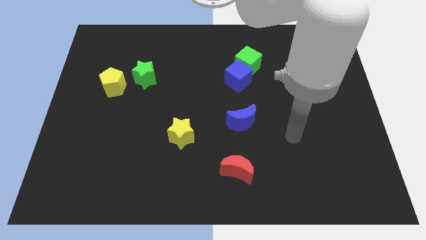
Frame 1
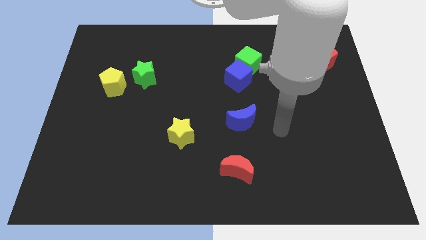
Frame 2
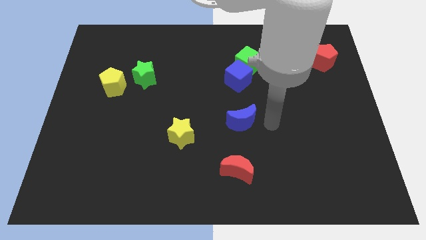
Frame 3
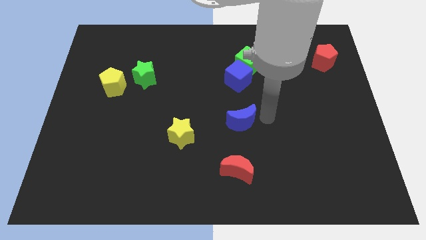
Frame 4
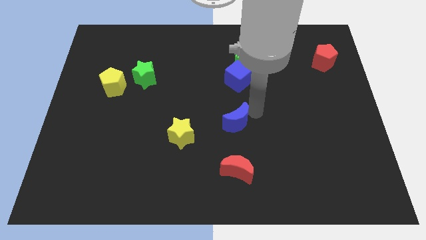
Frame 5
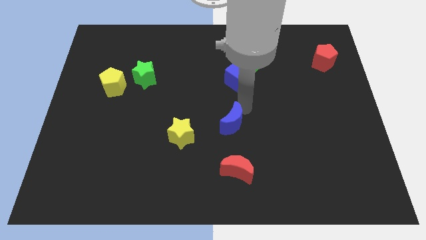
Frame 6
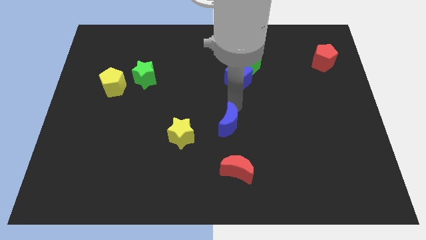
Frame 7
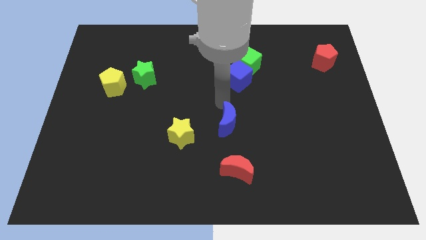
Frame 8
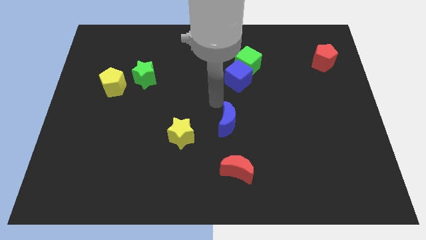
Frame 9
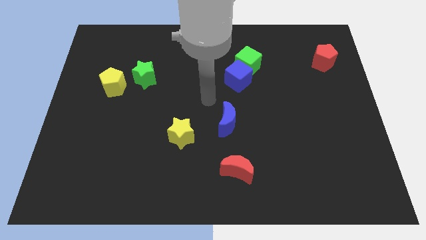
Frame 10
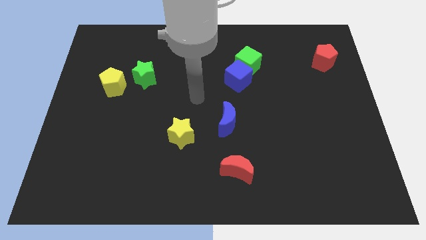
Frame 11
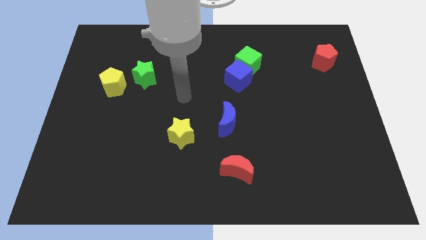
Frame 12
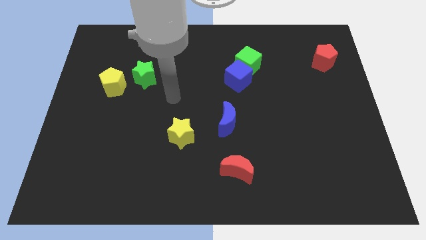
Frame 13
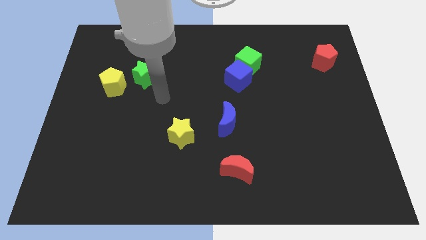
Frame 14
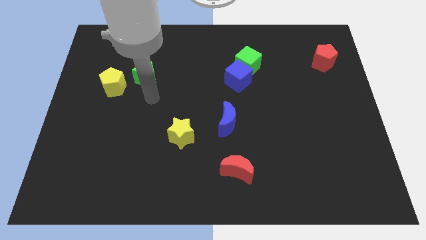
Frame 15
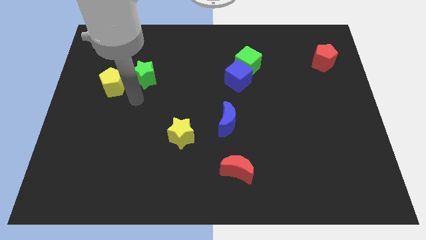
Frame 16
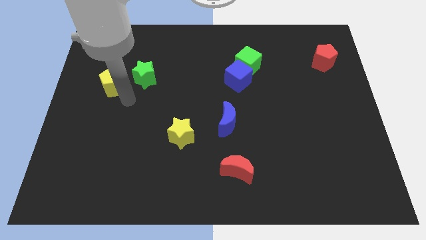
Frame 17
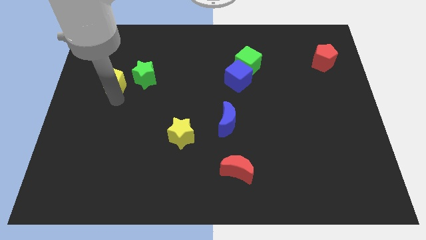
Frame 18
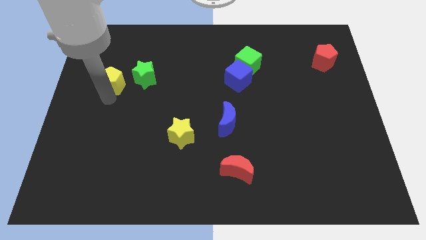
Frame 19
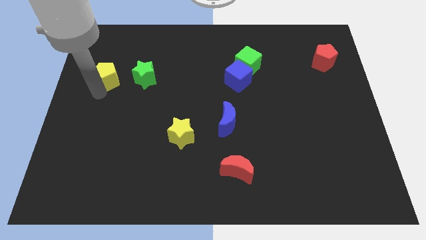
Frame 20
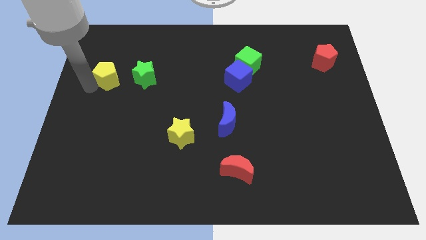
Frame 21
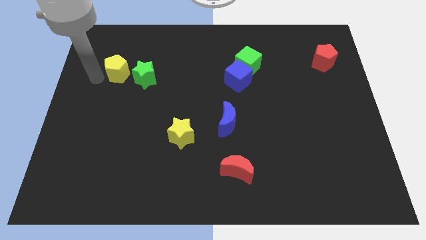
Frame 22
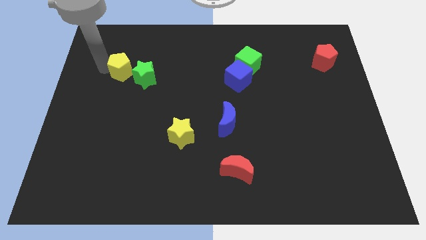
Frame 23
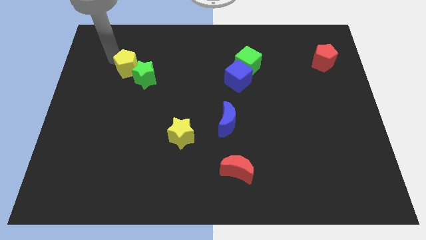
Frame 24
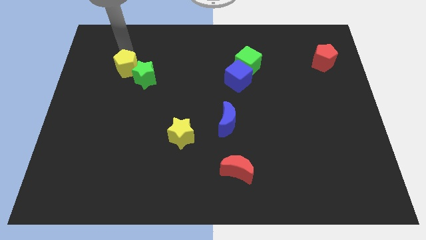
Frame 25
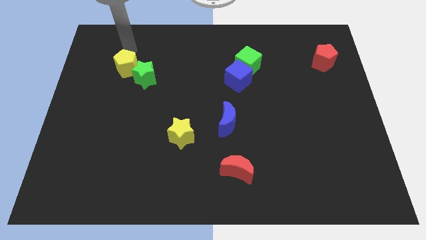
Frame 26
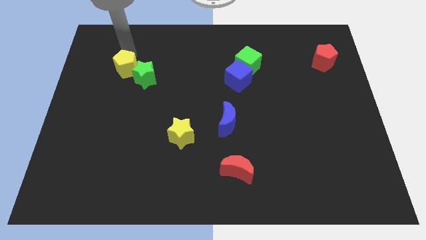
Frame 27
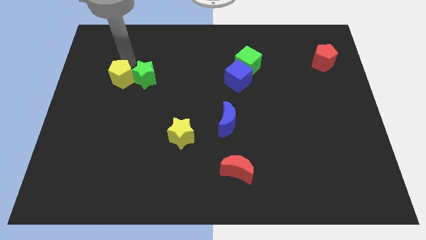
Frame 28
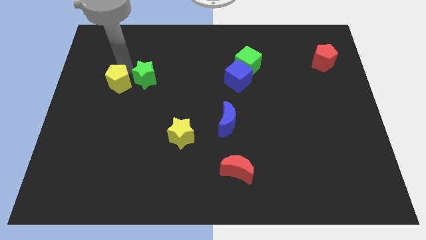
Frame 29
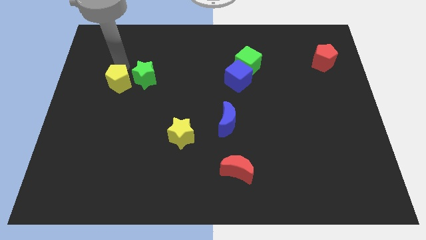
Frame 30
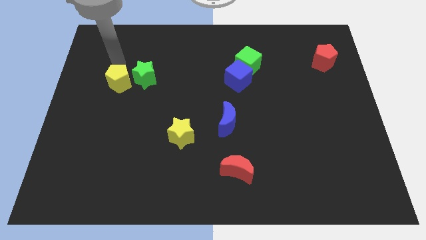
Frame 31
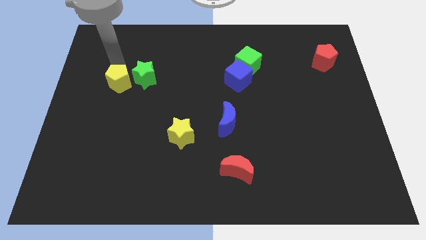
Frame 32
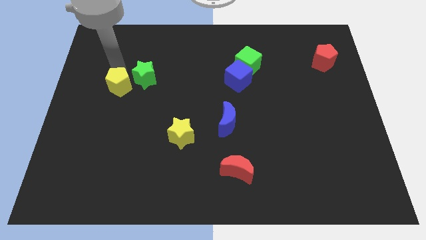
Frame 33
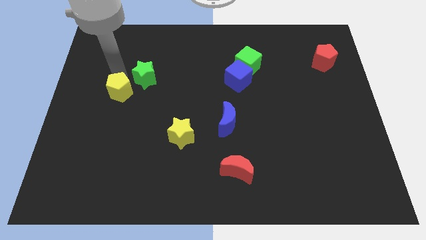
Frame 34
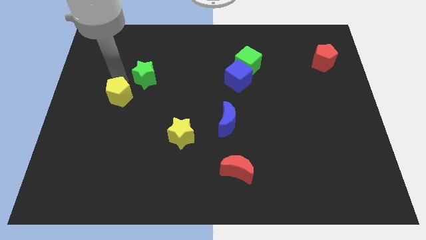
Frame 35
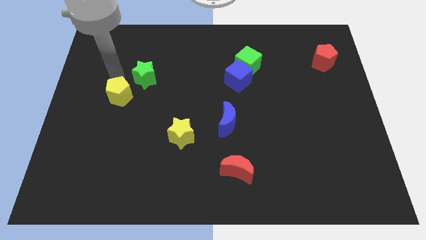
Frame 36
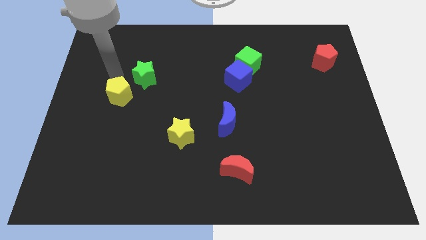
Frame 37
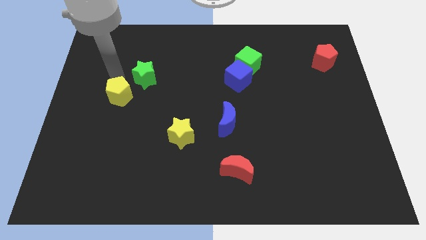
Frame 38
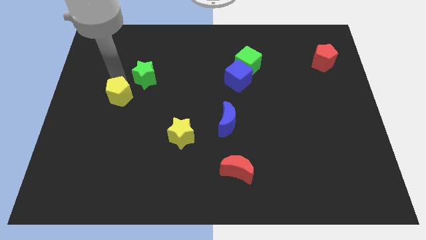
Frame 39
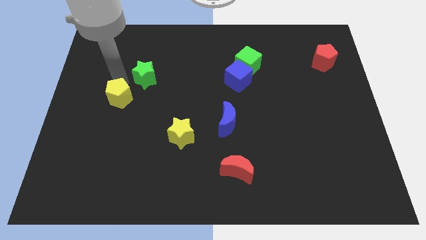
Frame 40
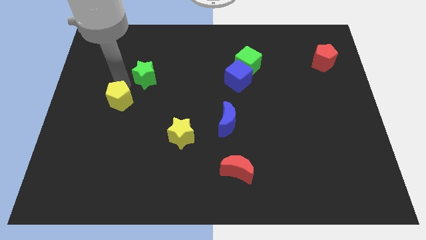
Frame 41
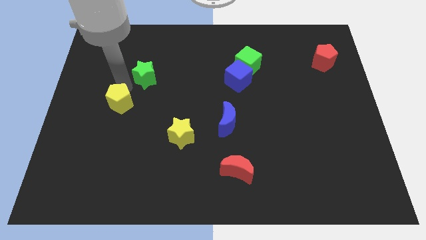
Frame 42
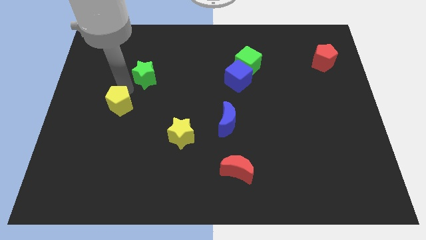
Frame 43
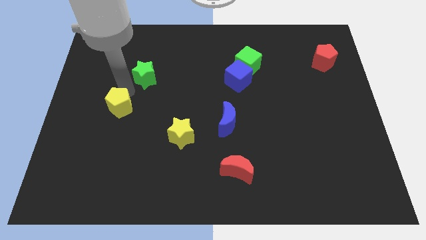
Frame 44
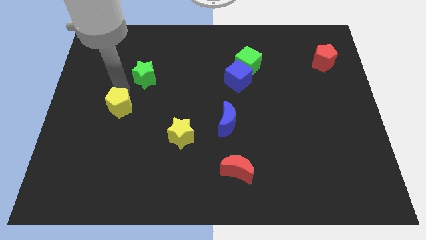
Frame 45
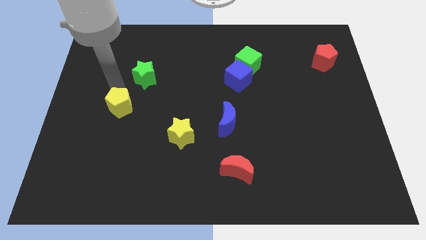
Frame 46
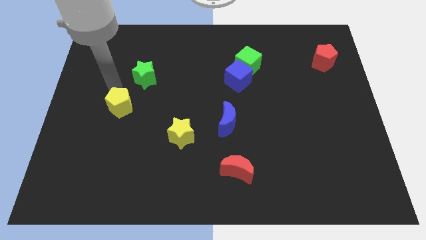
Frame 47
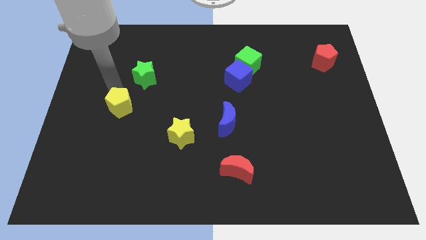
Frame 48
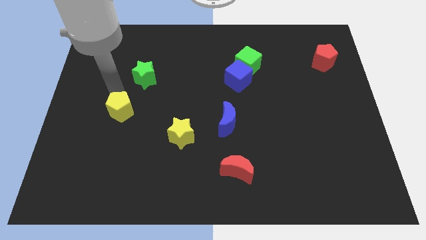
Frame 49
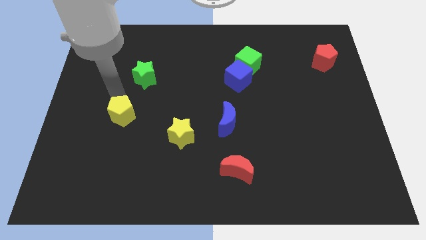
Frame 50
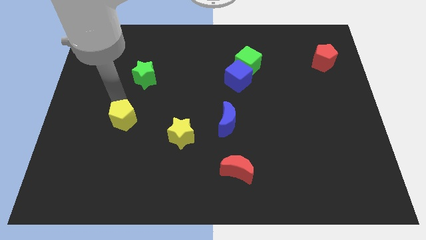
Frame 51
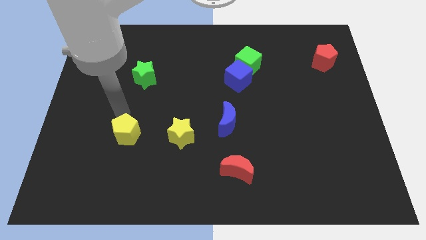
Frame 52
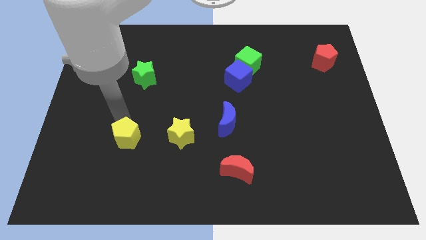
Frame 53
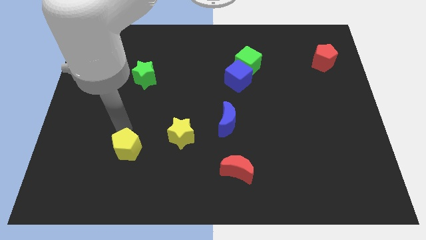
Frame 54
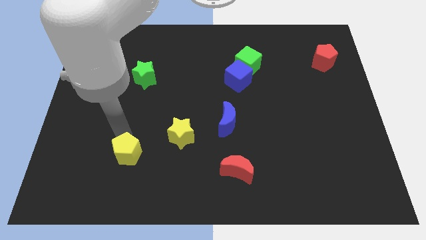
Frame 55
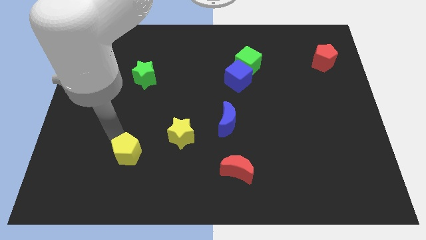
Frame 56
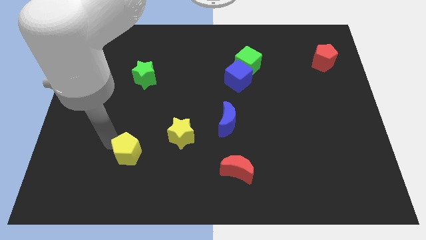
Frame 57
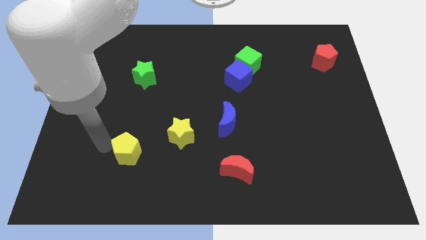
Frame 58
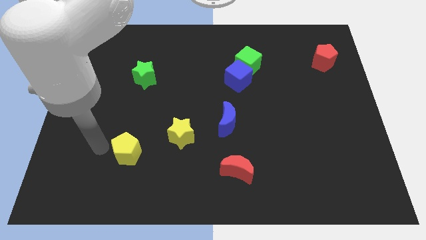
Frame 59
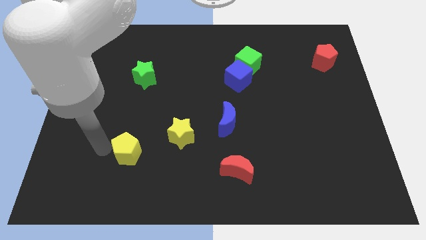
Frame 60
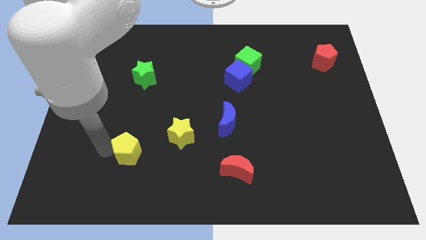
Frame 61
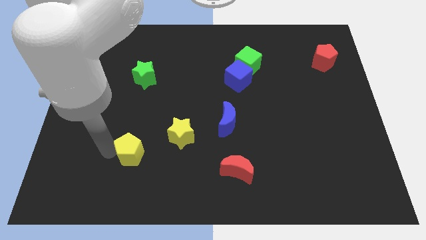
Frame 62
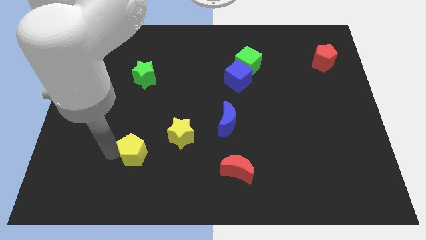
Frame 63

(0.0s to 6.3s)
push the yellow pentagon diagonally down and to the left of the yellow star
